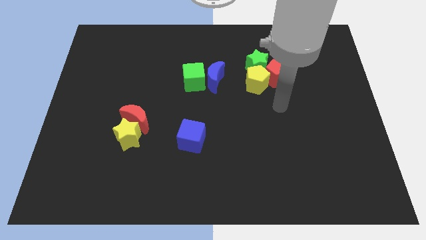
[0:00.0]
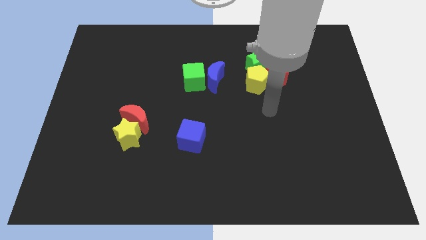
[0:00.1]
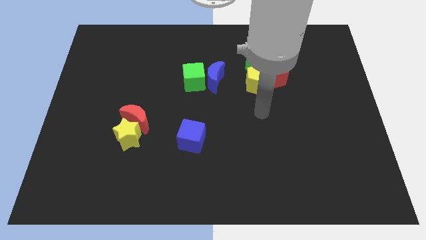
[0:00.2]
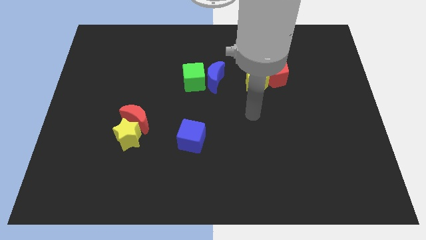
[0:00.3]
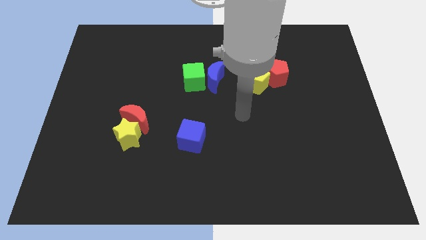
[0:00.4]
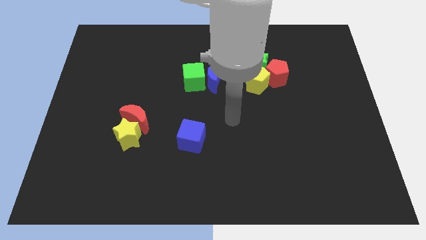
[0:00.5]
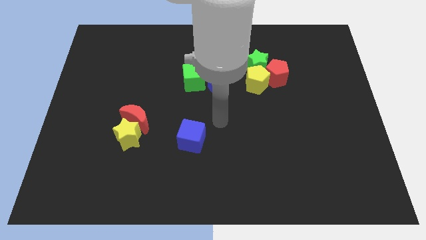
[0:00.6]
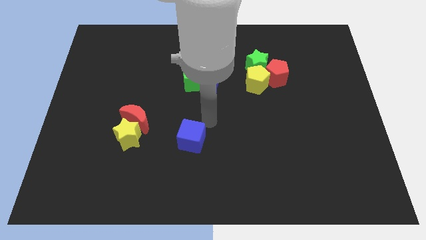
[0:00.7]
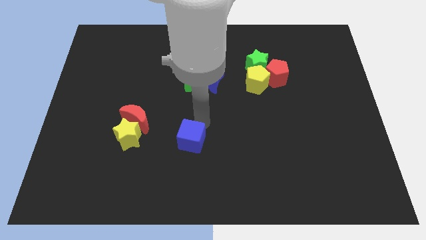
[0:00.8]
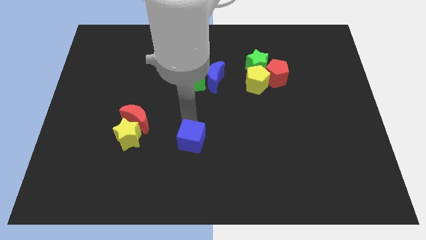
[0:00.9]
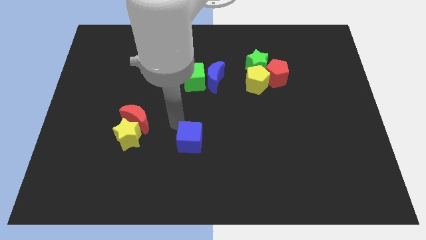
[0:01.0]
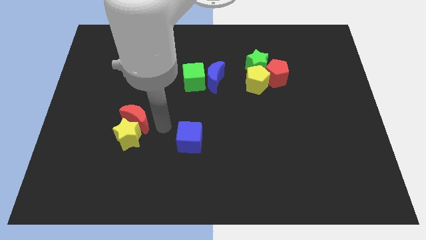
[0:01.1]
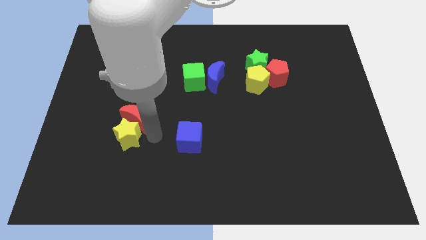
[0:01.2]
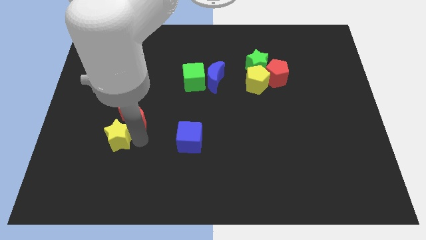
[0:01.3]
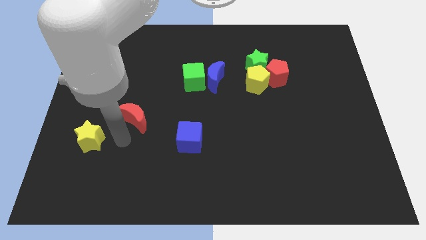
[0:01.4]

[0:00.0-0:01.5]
move the red moon away from the yellow star

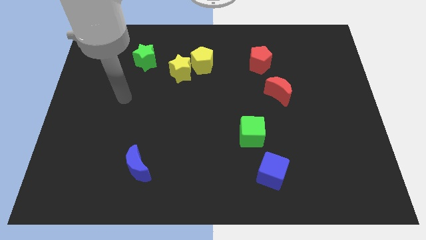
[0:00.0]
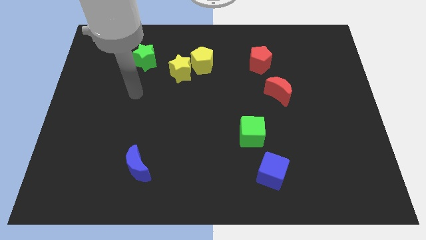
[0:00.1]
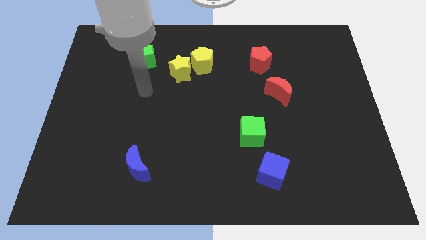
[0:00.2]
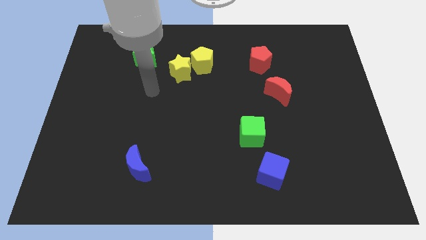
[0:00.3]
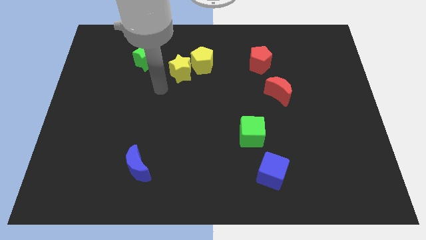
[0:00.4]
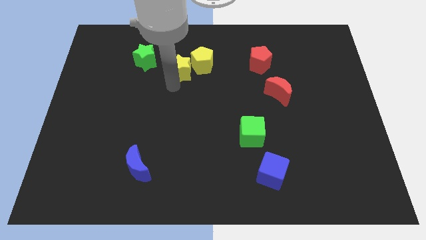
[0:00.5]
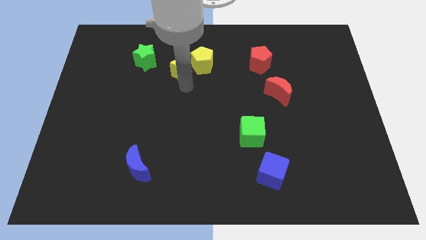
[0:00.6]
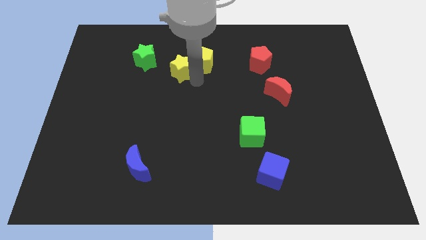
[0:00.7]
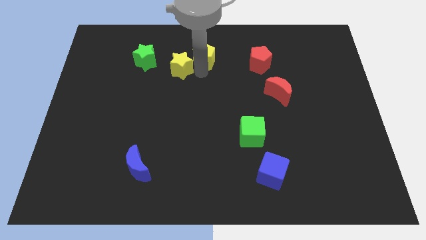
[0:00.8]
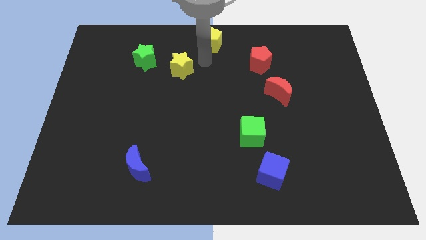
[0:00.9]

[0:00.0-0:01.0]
separate the yellow star from the yellow pentagon

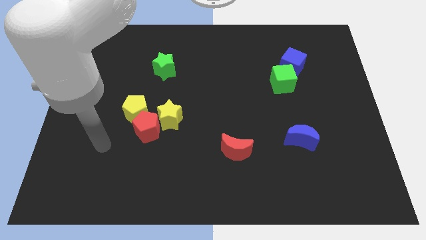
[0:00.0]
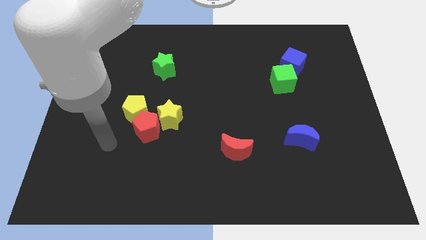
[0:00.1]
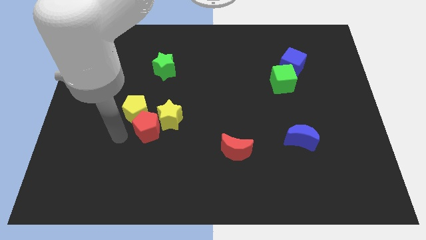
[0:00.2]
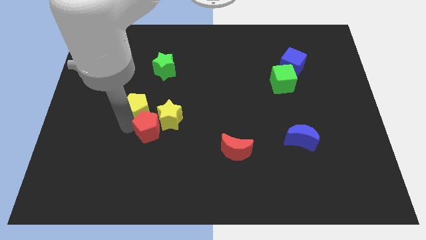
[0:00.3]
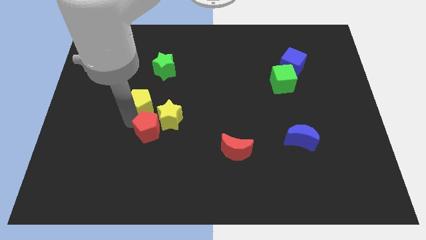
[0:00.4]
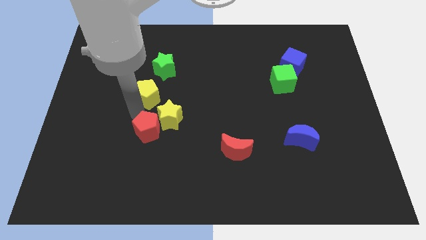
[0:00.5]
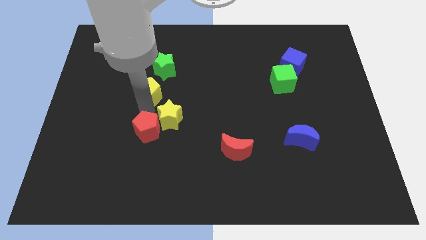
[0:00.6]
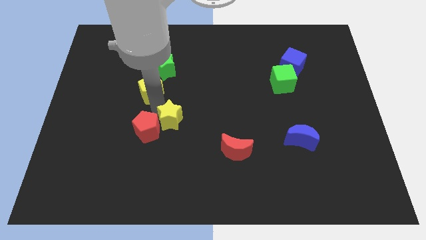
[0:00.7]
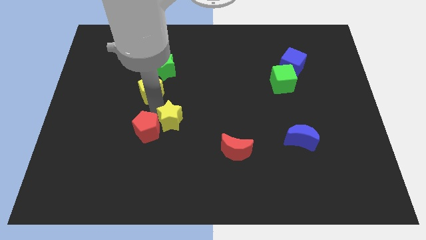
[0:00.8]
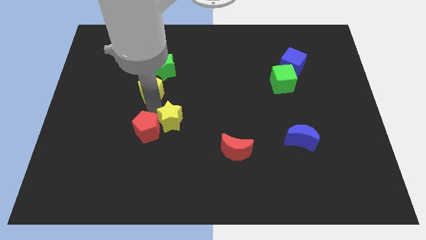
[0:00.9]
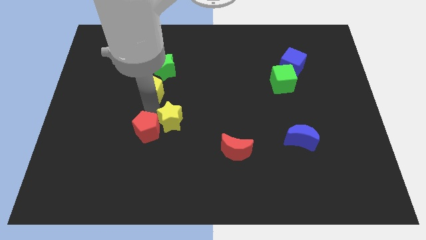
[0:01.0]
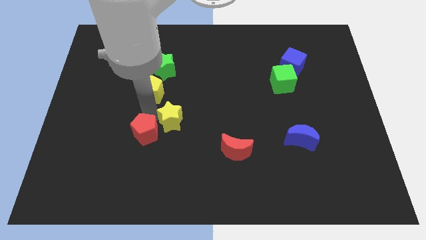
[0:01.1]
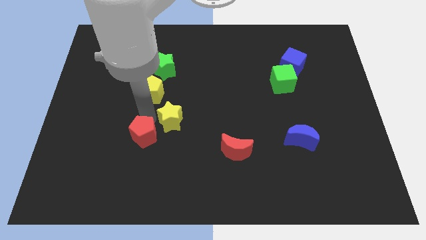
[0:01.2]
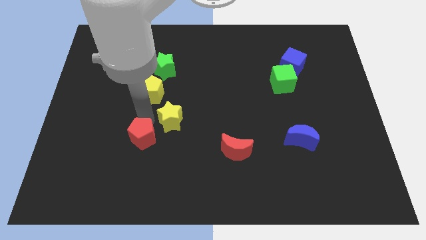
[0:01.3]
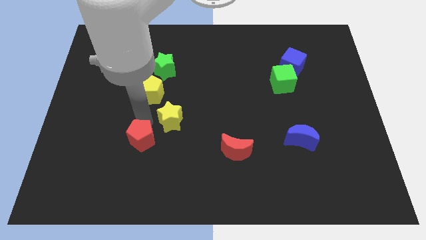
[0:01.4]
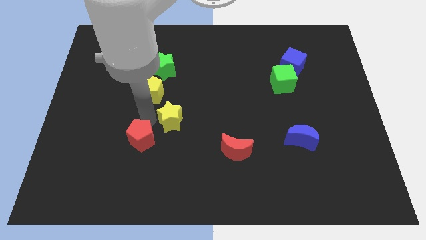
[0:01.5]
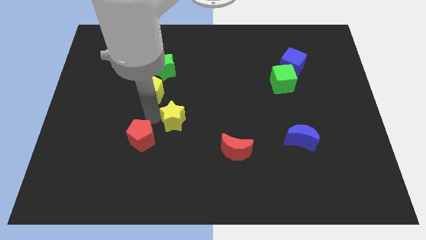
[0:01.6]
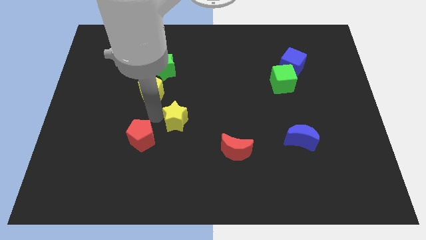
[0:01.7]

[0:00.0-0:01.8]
separate the red pentagon from the yellow pentagon and yellow star

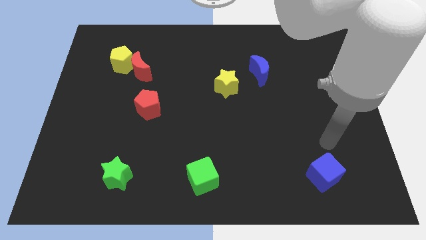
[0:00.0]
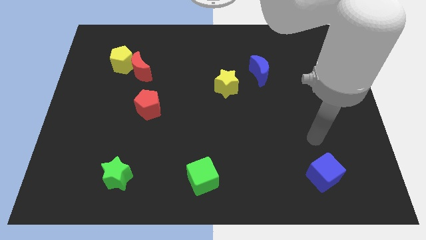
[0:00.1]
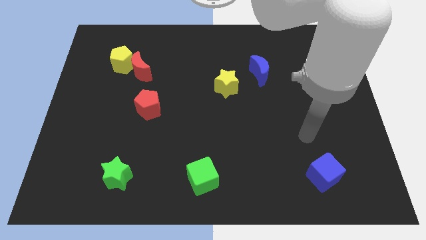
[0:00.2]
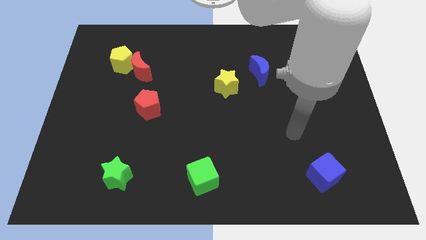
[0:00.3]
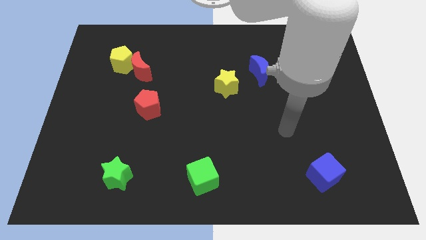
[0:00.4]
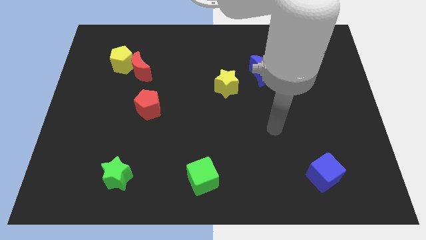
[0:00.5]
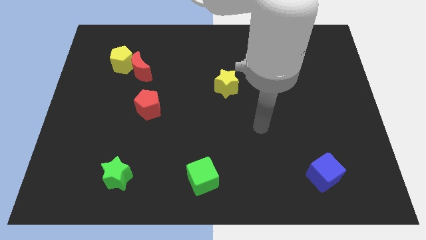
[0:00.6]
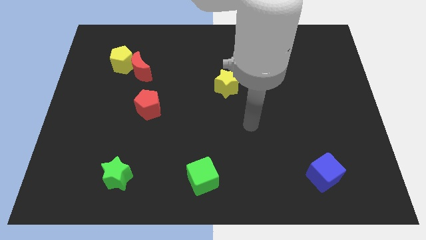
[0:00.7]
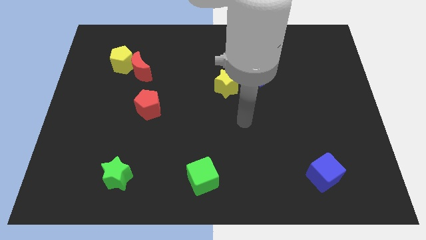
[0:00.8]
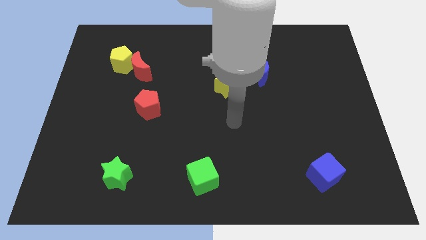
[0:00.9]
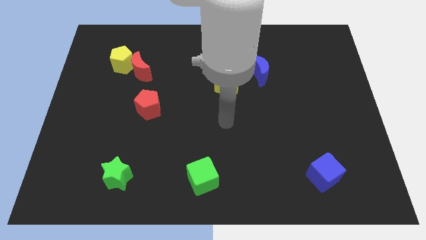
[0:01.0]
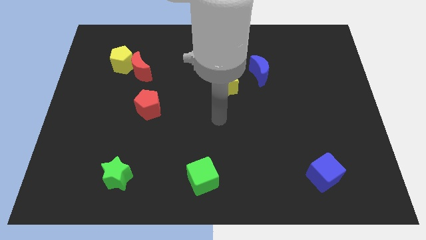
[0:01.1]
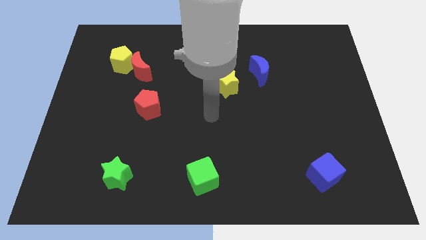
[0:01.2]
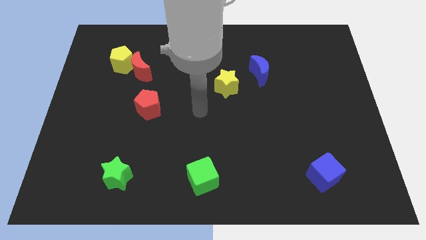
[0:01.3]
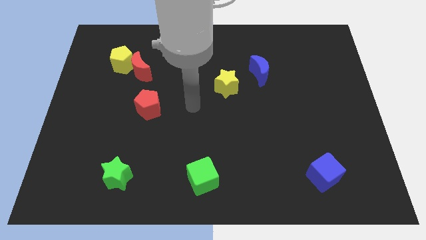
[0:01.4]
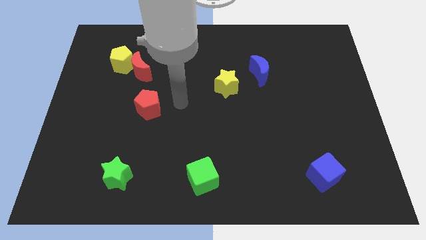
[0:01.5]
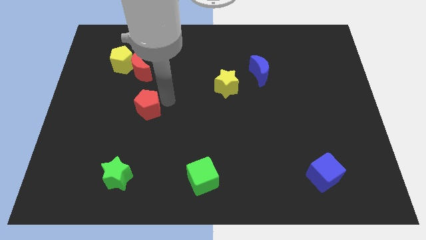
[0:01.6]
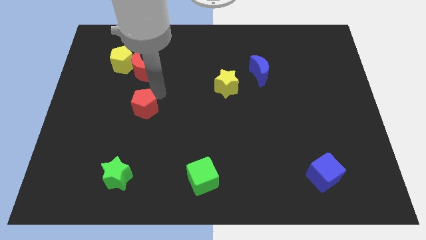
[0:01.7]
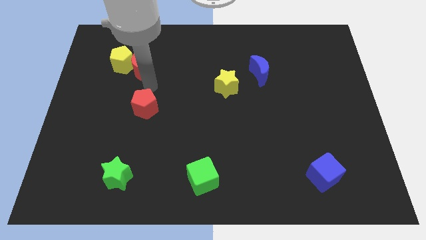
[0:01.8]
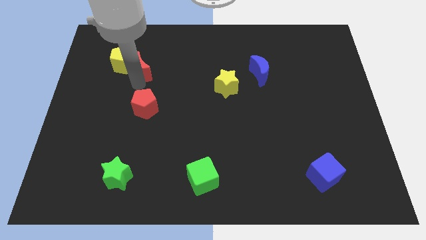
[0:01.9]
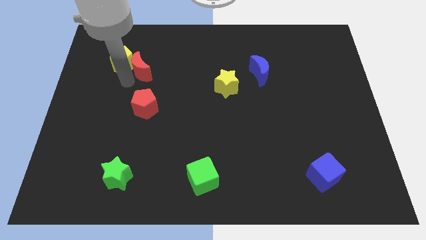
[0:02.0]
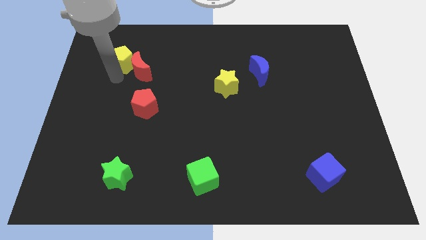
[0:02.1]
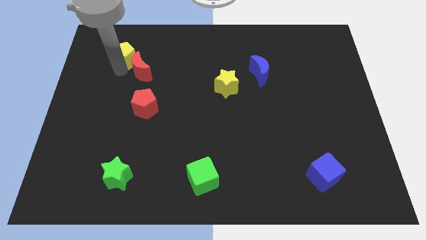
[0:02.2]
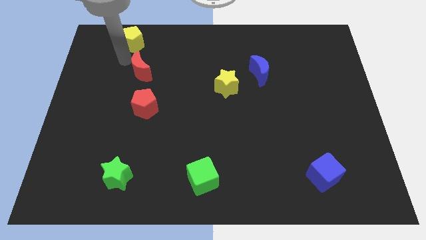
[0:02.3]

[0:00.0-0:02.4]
separate the red moon from the yellow pentagon

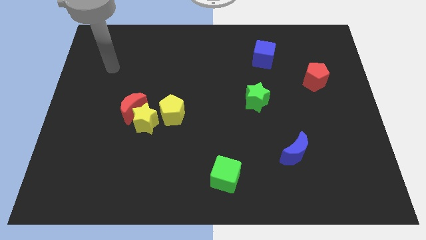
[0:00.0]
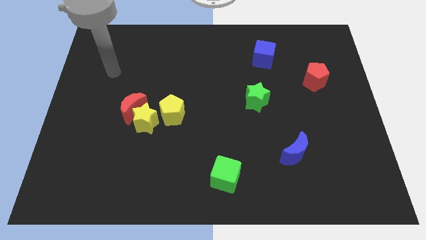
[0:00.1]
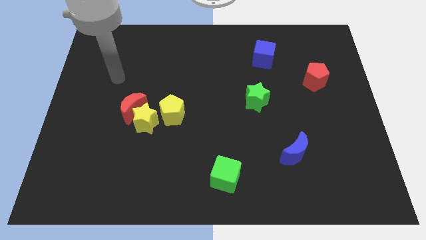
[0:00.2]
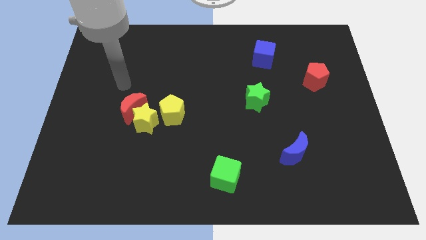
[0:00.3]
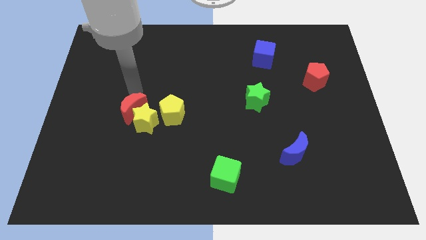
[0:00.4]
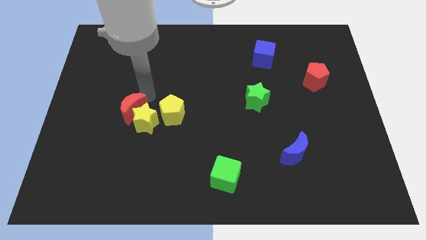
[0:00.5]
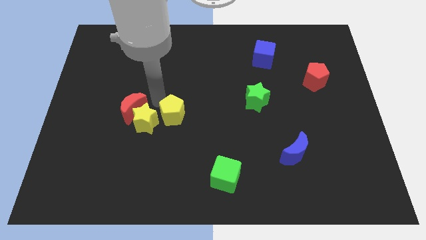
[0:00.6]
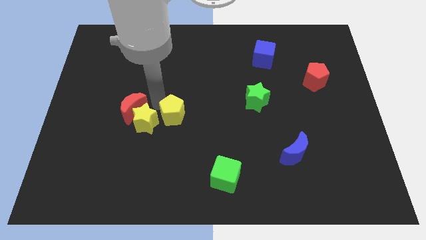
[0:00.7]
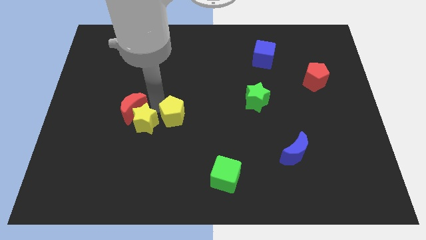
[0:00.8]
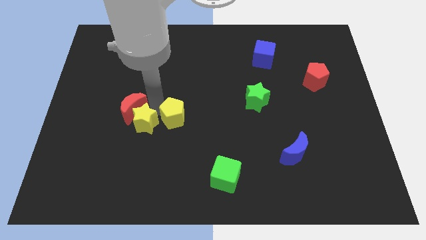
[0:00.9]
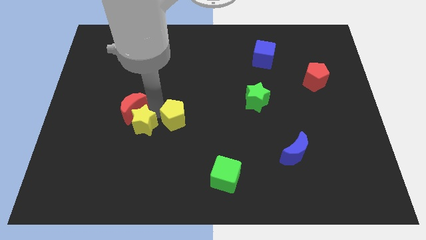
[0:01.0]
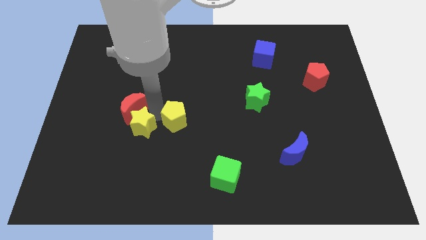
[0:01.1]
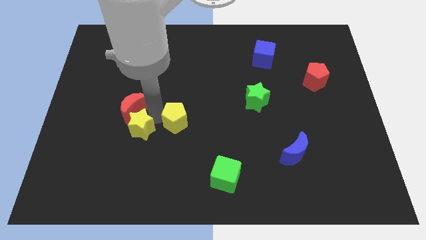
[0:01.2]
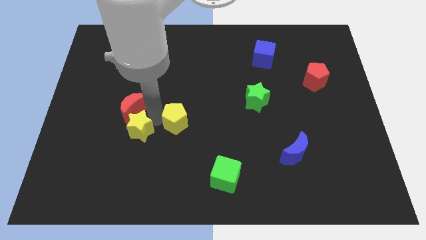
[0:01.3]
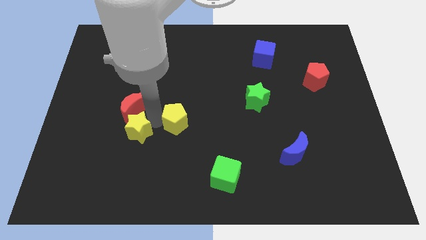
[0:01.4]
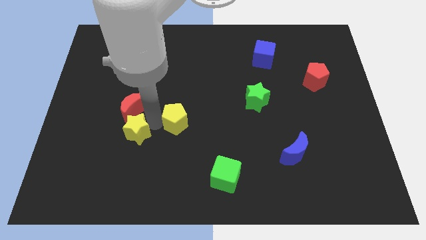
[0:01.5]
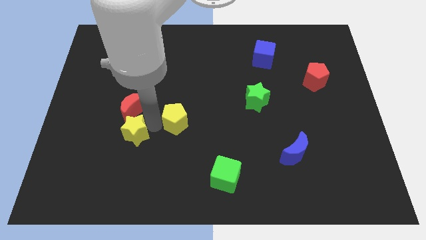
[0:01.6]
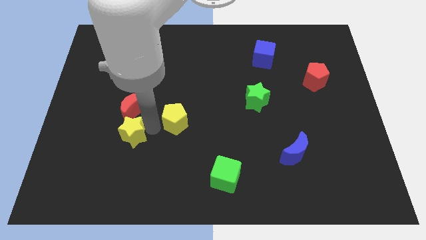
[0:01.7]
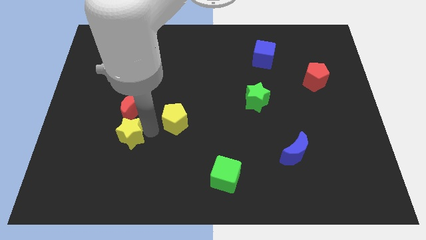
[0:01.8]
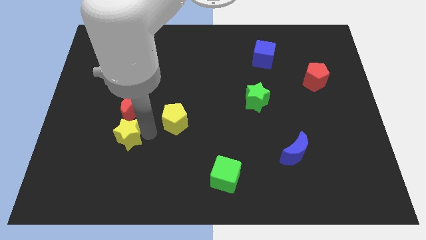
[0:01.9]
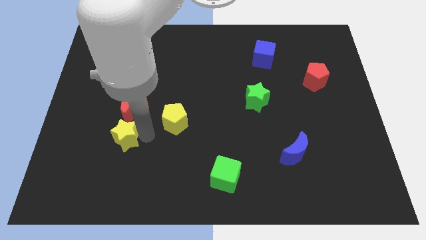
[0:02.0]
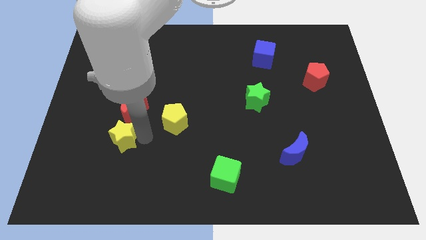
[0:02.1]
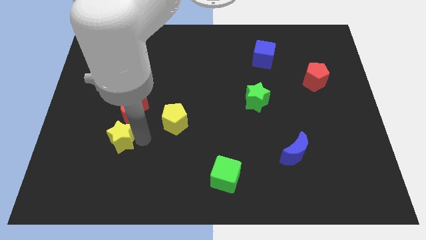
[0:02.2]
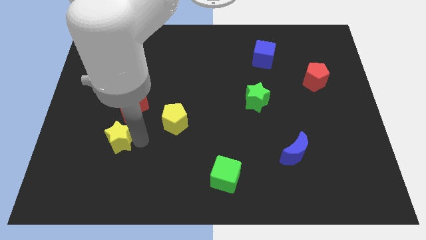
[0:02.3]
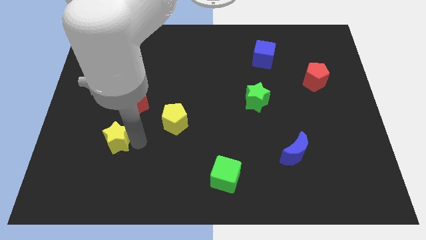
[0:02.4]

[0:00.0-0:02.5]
separate the yellow star from the red moon and yellow pentagon
